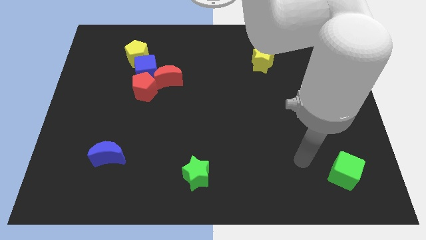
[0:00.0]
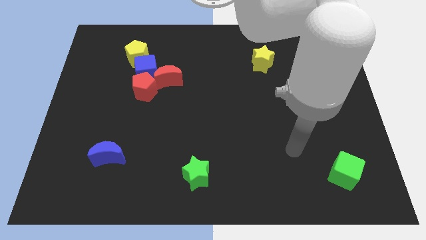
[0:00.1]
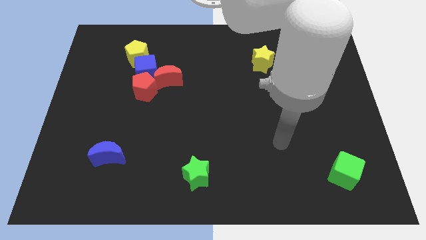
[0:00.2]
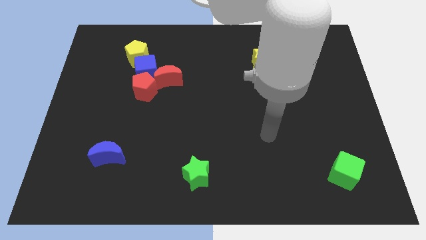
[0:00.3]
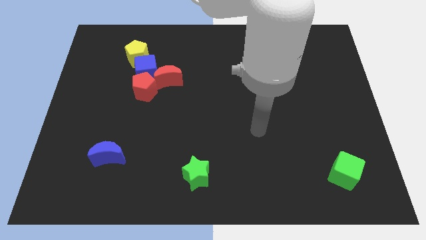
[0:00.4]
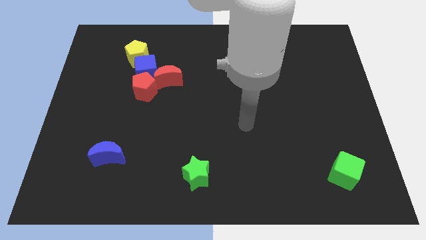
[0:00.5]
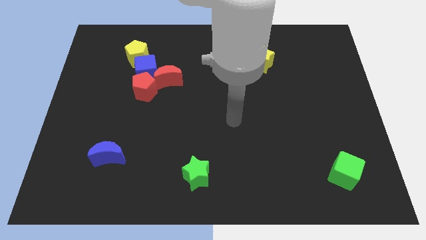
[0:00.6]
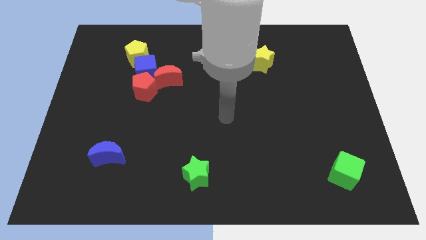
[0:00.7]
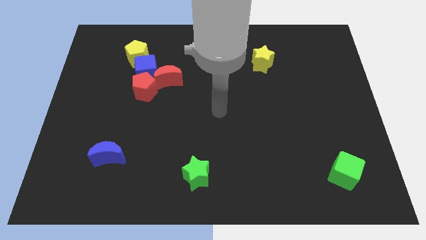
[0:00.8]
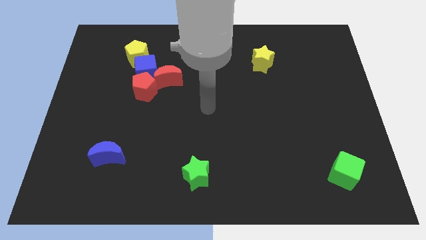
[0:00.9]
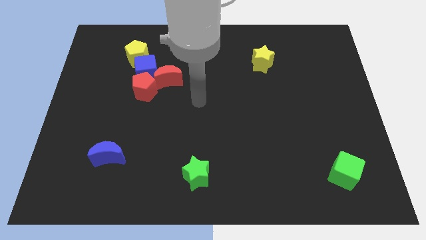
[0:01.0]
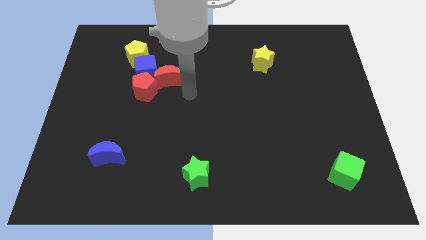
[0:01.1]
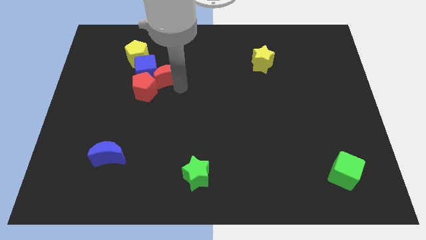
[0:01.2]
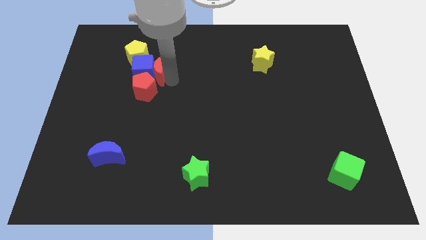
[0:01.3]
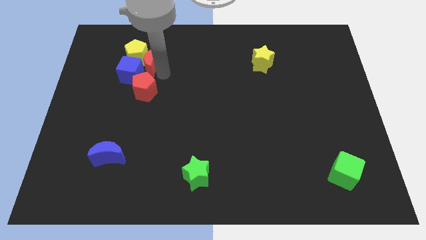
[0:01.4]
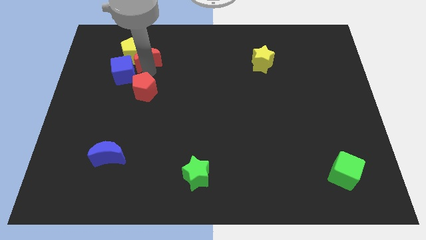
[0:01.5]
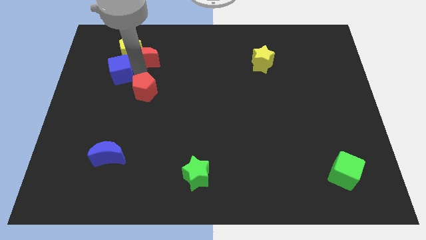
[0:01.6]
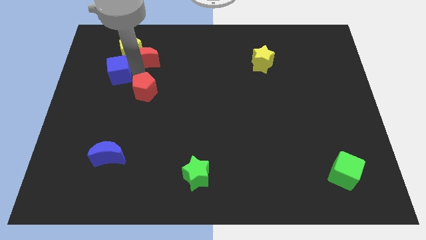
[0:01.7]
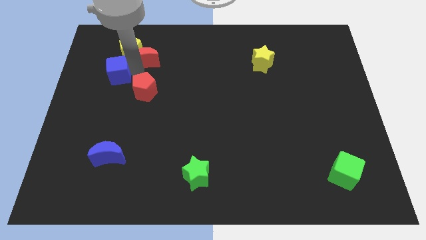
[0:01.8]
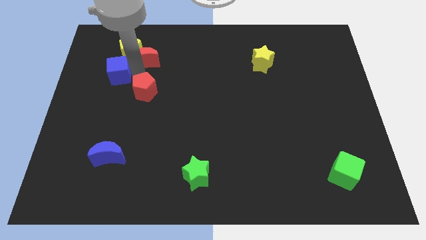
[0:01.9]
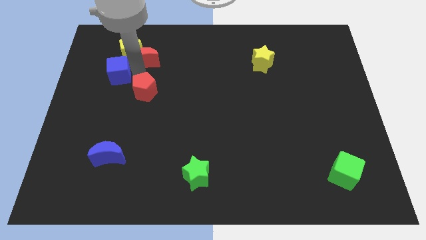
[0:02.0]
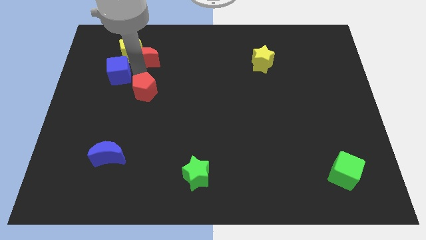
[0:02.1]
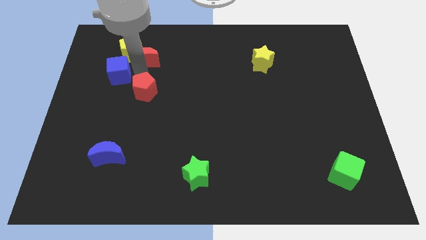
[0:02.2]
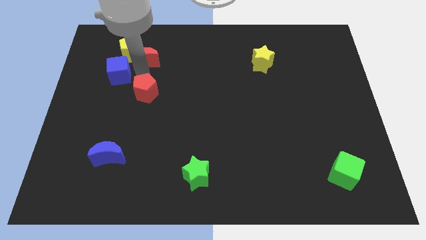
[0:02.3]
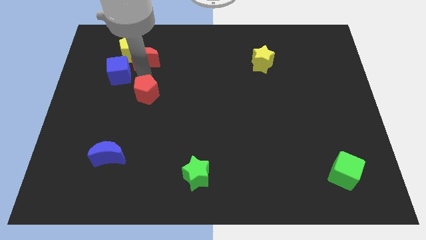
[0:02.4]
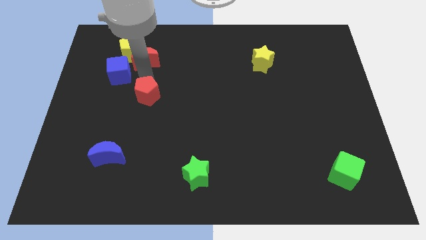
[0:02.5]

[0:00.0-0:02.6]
separate the red pentagon from the blue cube and red moon

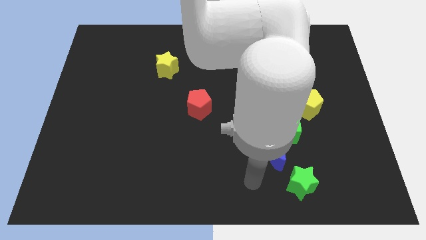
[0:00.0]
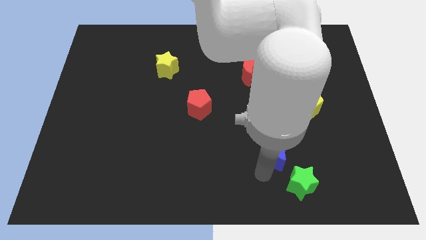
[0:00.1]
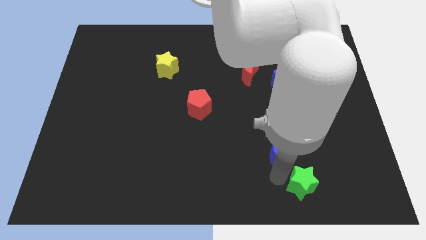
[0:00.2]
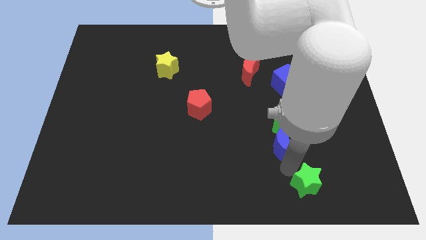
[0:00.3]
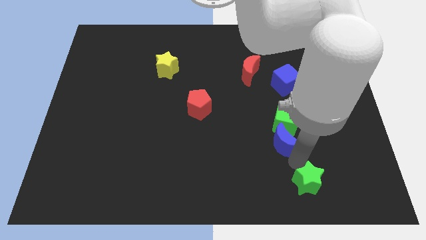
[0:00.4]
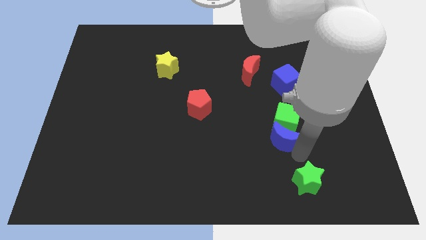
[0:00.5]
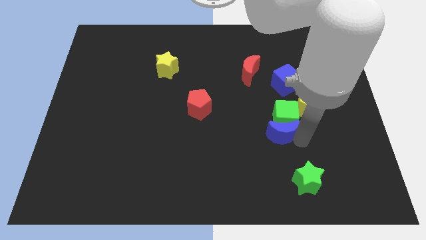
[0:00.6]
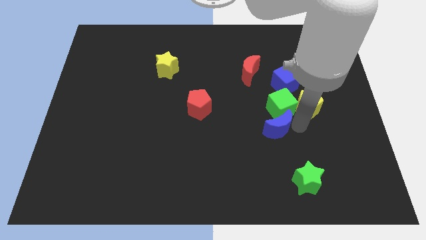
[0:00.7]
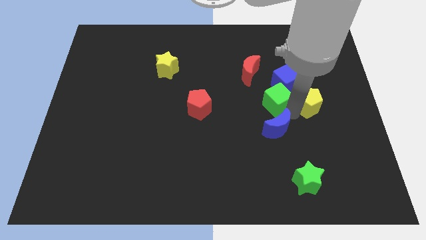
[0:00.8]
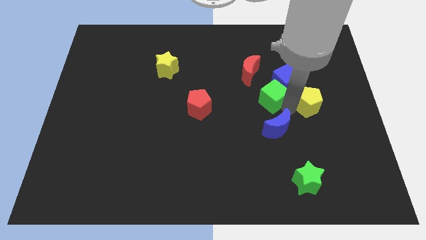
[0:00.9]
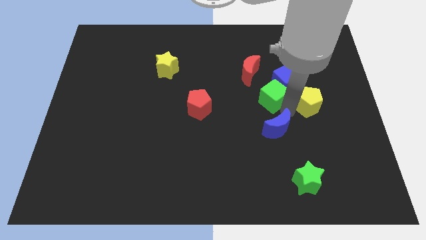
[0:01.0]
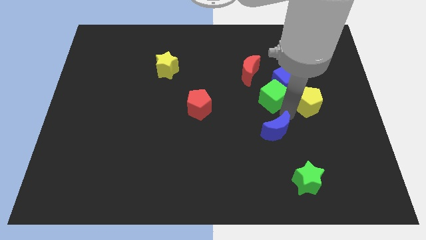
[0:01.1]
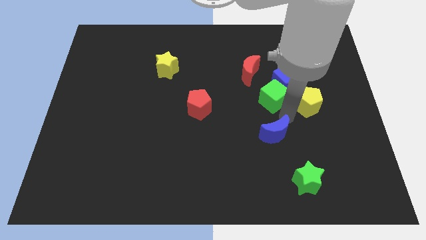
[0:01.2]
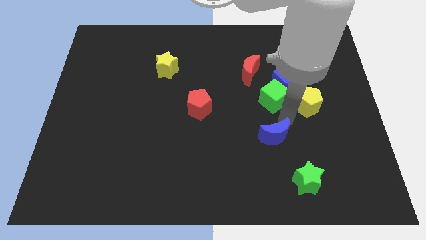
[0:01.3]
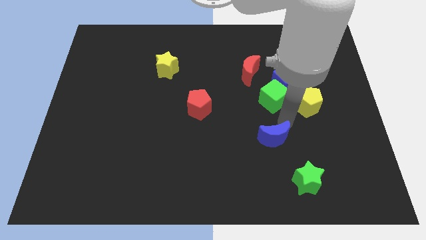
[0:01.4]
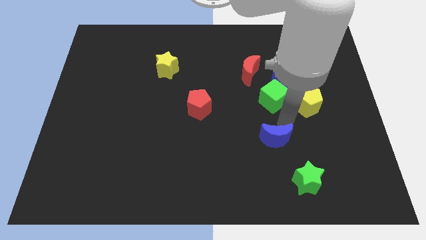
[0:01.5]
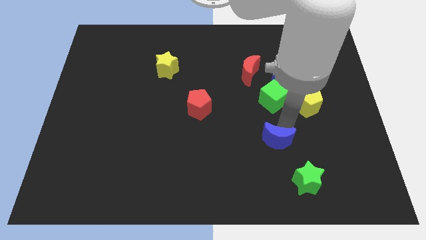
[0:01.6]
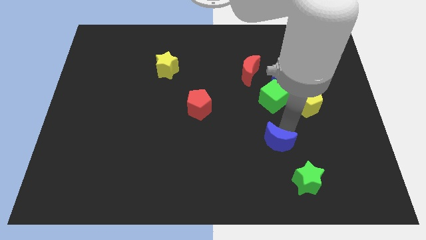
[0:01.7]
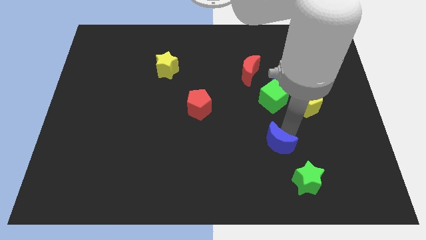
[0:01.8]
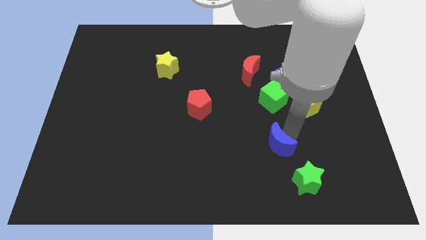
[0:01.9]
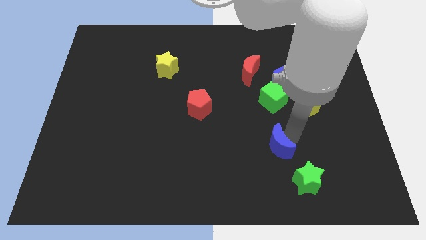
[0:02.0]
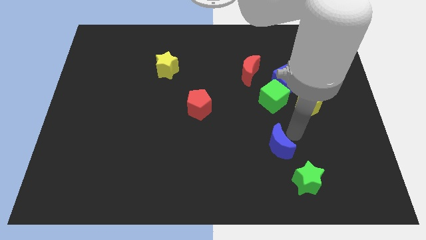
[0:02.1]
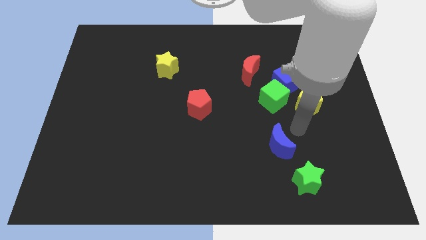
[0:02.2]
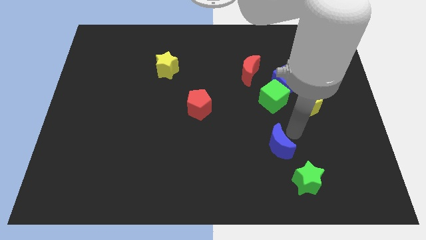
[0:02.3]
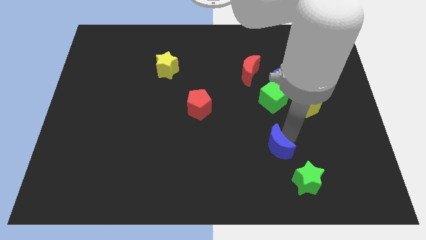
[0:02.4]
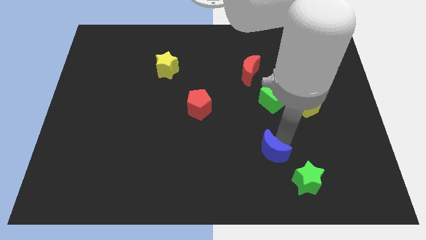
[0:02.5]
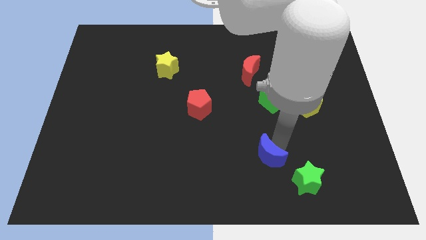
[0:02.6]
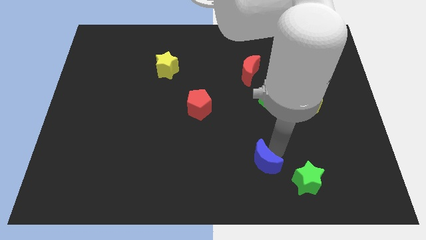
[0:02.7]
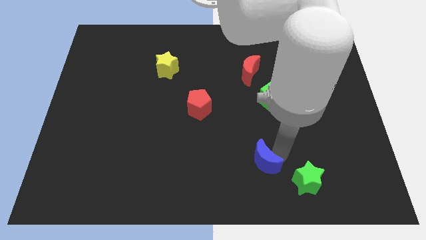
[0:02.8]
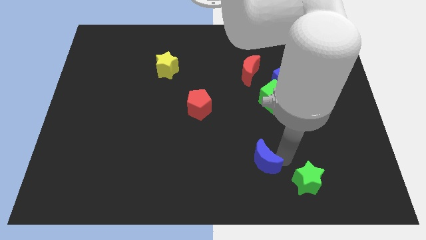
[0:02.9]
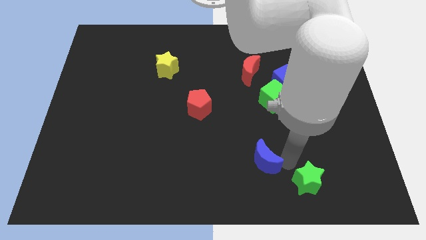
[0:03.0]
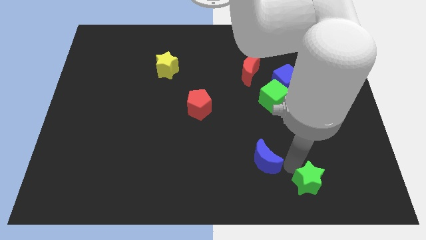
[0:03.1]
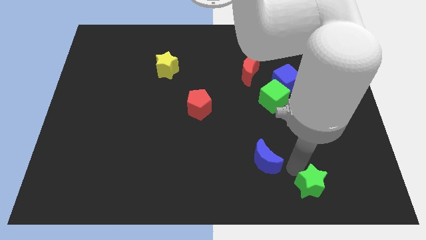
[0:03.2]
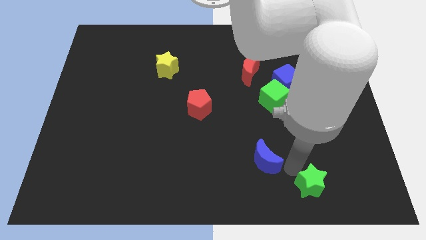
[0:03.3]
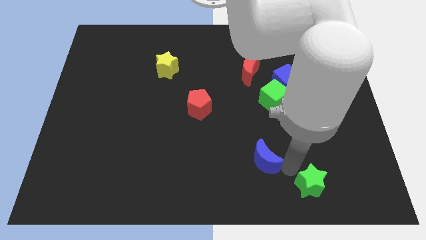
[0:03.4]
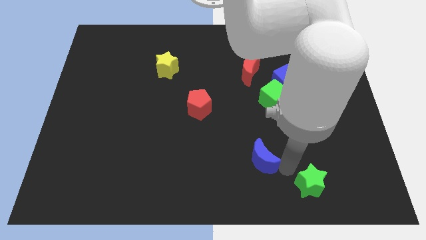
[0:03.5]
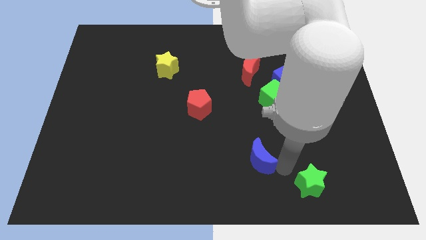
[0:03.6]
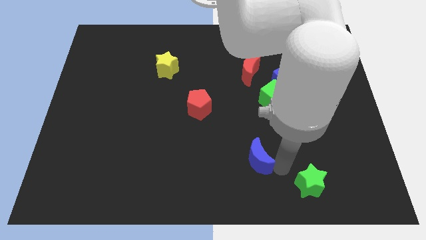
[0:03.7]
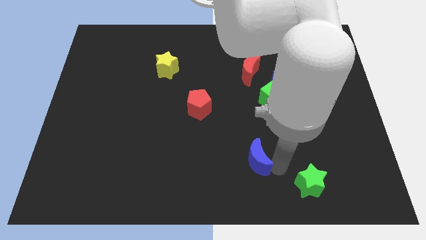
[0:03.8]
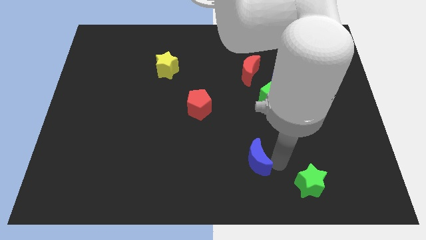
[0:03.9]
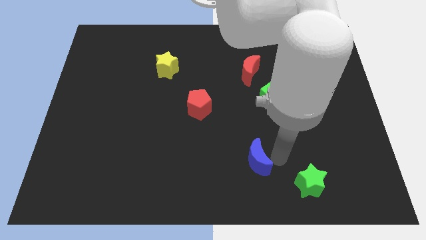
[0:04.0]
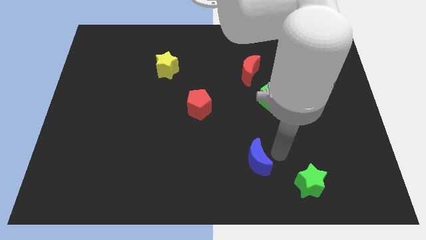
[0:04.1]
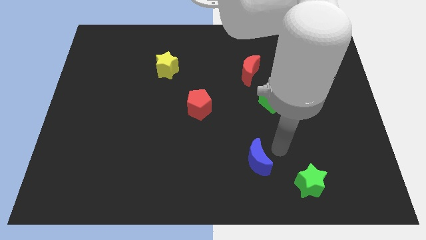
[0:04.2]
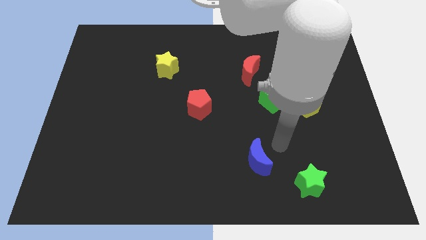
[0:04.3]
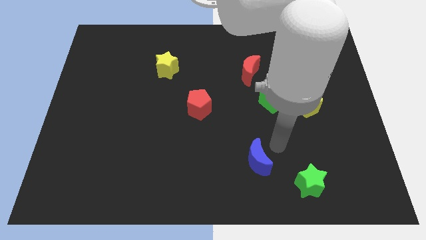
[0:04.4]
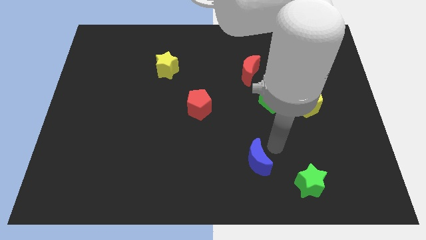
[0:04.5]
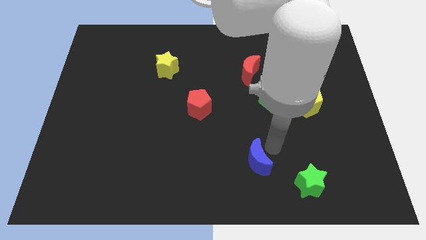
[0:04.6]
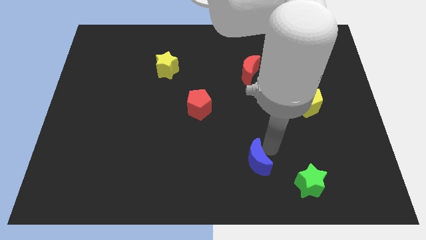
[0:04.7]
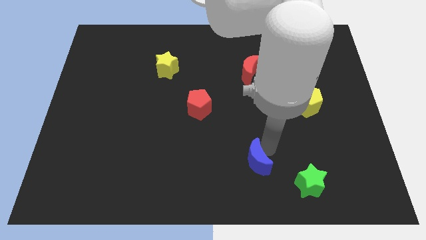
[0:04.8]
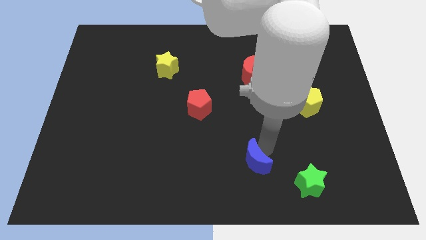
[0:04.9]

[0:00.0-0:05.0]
pull the blue moon apart from the green cube and green star

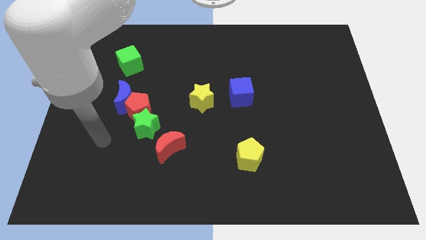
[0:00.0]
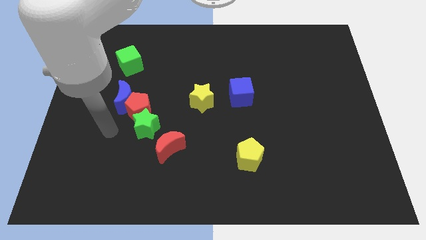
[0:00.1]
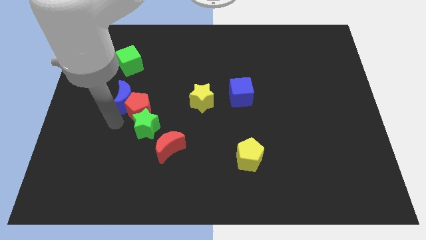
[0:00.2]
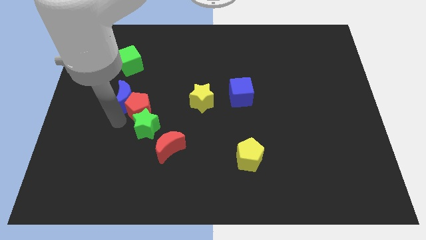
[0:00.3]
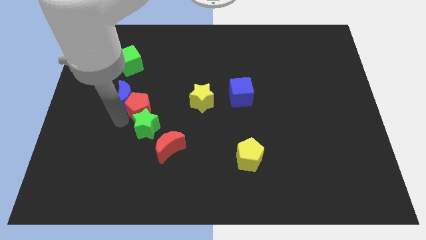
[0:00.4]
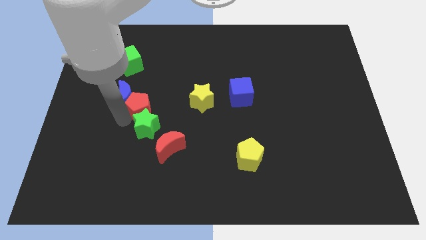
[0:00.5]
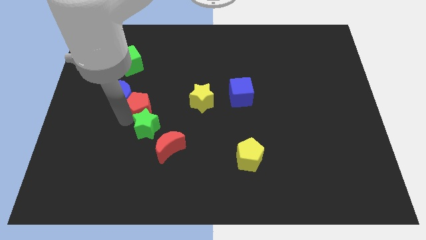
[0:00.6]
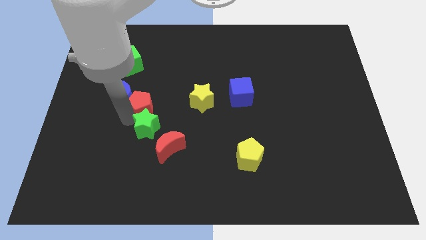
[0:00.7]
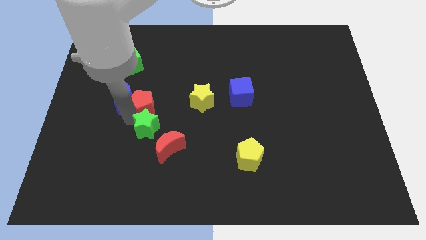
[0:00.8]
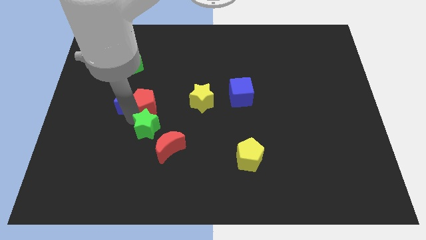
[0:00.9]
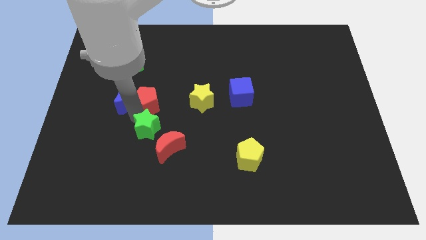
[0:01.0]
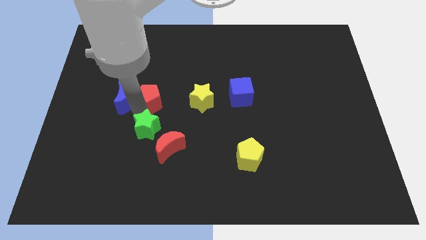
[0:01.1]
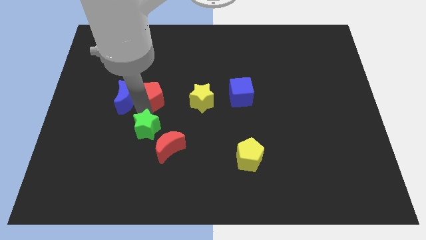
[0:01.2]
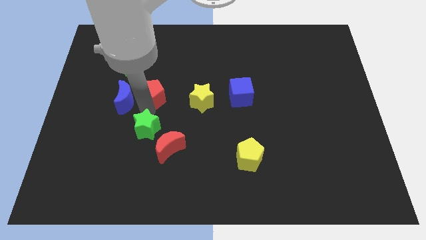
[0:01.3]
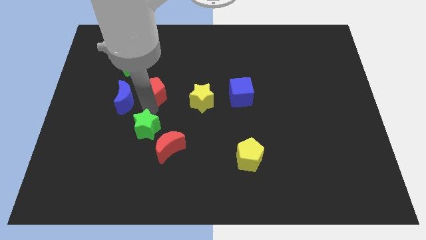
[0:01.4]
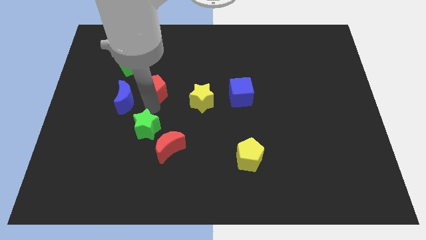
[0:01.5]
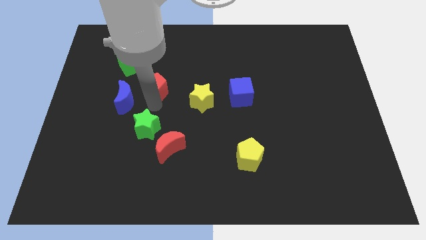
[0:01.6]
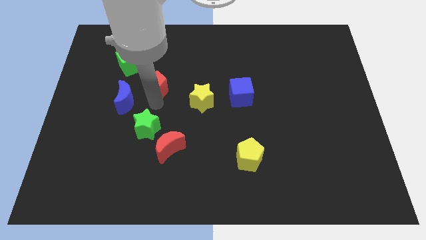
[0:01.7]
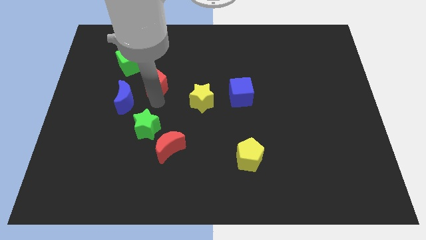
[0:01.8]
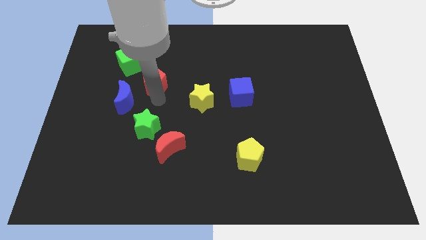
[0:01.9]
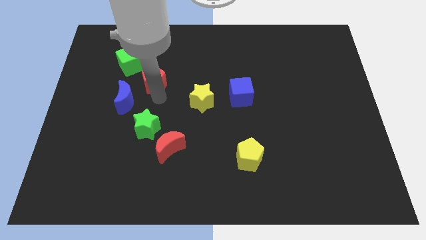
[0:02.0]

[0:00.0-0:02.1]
pull the red pentagon apart from the blue moon and green star
